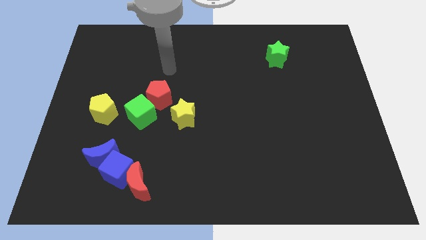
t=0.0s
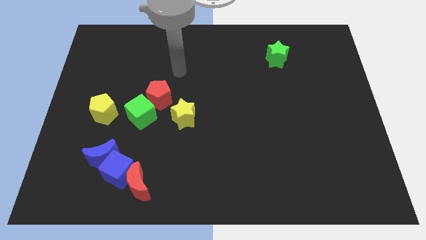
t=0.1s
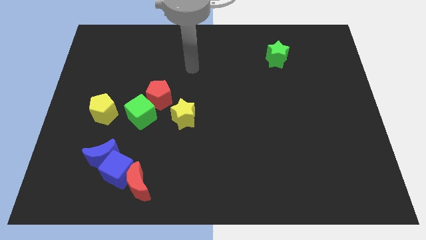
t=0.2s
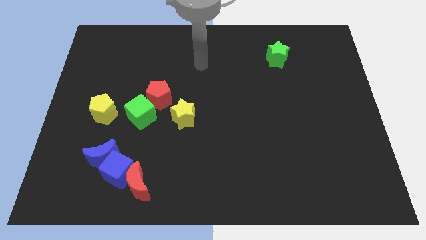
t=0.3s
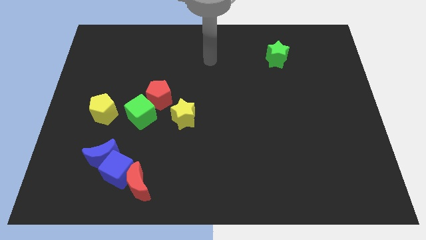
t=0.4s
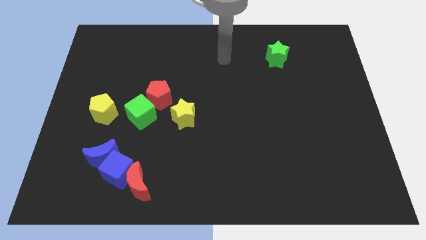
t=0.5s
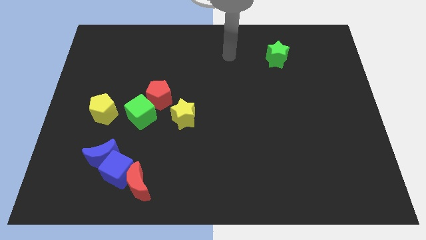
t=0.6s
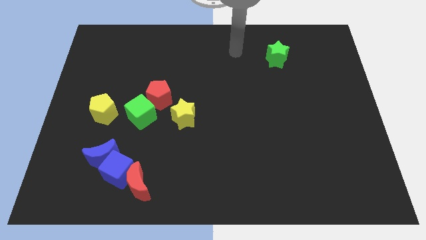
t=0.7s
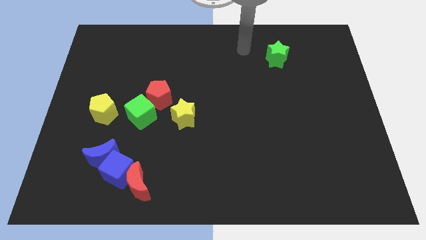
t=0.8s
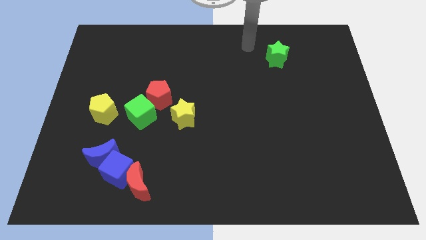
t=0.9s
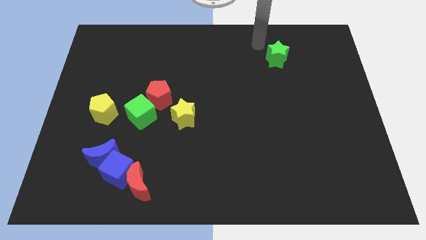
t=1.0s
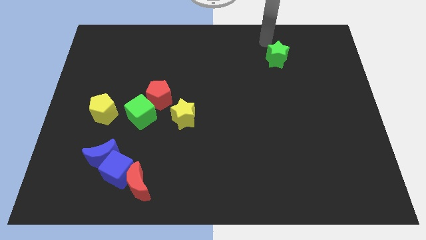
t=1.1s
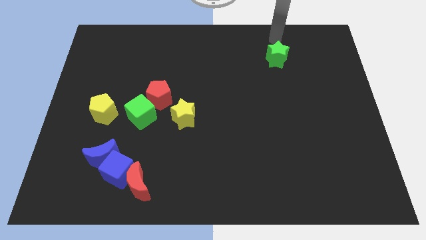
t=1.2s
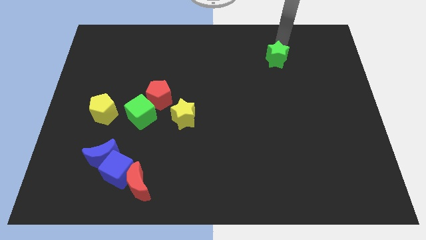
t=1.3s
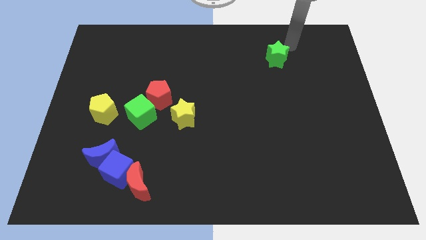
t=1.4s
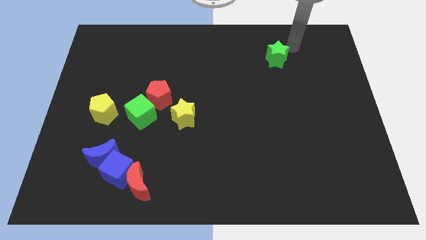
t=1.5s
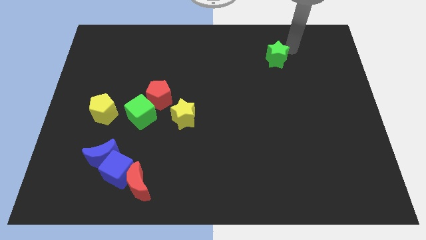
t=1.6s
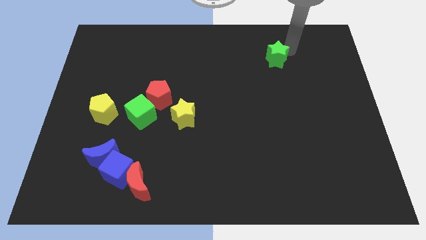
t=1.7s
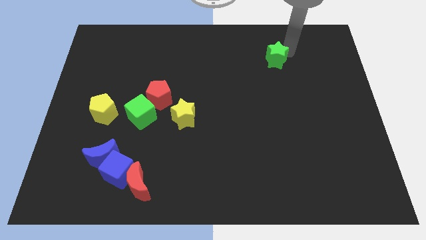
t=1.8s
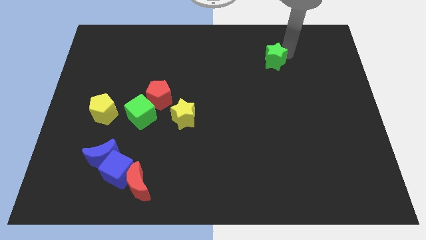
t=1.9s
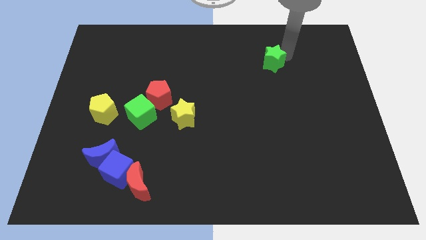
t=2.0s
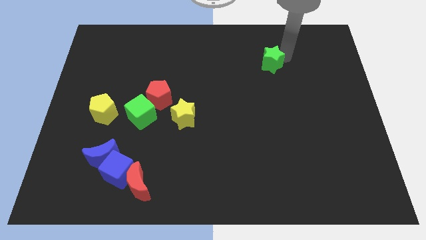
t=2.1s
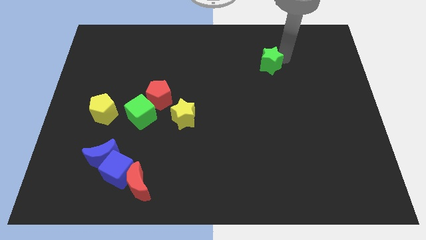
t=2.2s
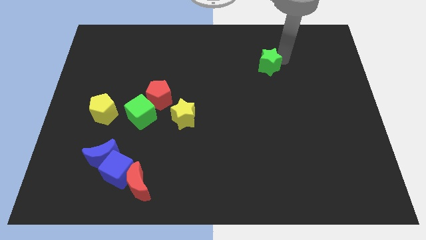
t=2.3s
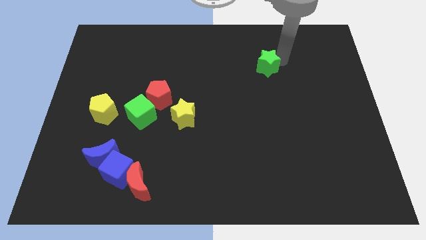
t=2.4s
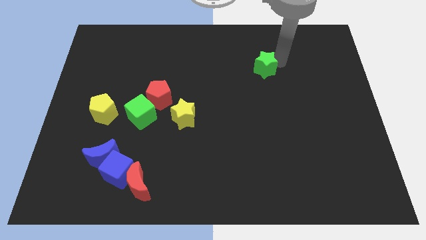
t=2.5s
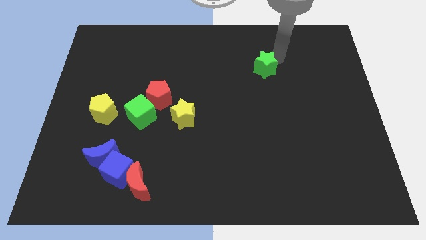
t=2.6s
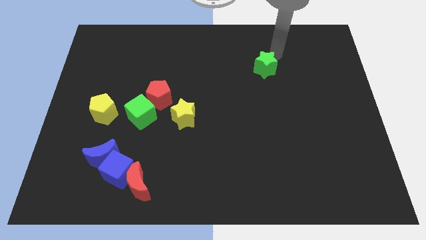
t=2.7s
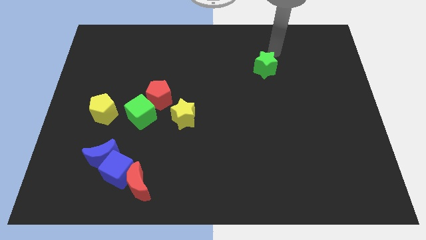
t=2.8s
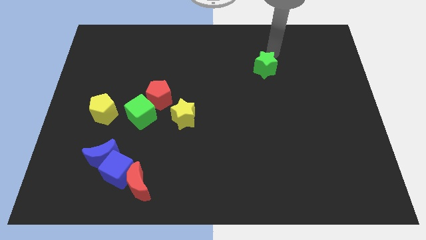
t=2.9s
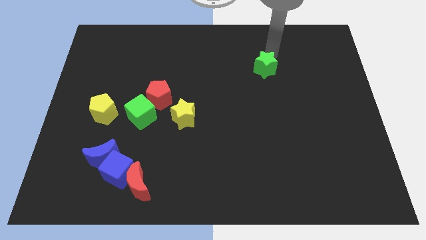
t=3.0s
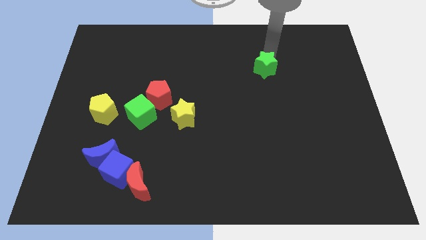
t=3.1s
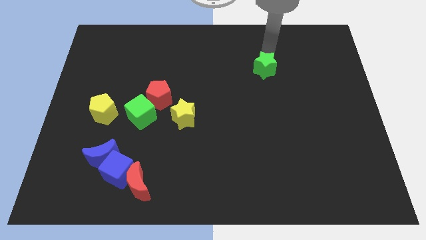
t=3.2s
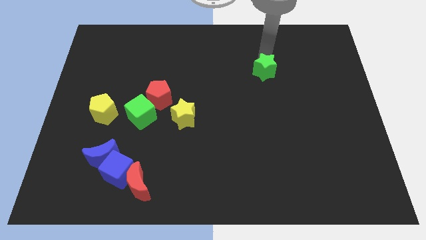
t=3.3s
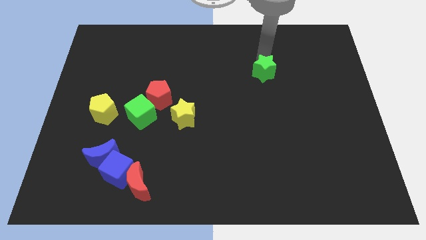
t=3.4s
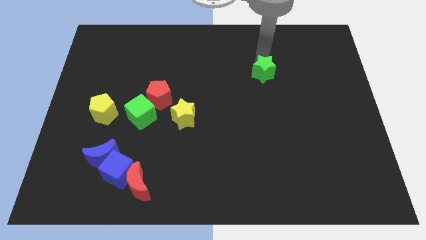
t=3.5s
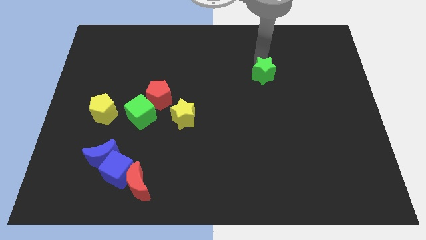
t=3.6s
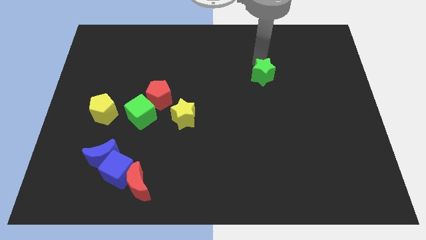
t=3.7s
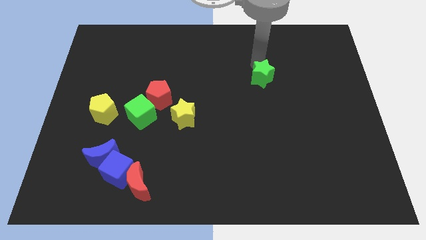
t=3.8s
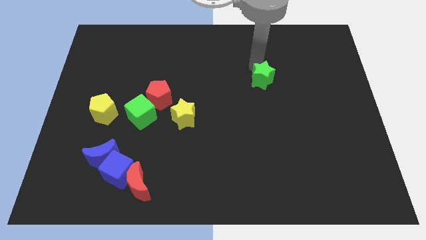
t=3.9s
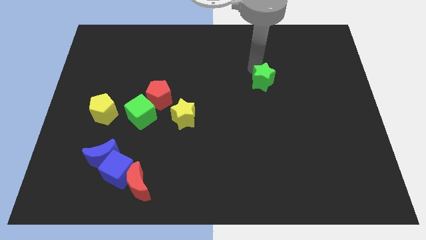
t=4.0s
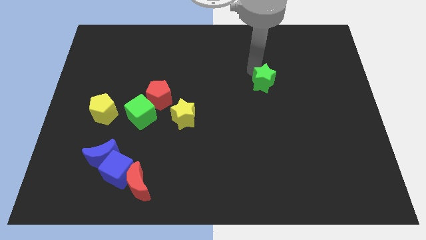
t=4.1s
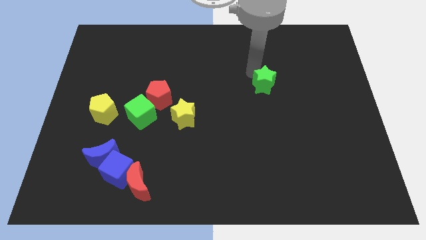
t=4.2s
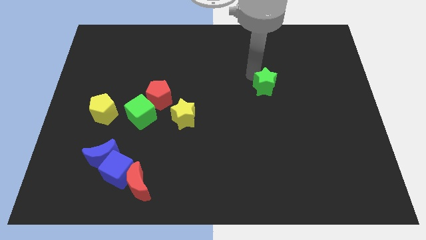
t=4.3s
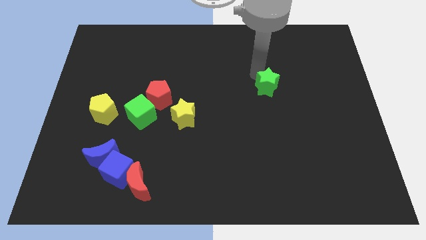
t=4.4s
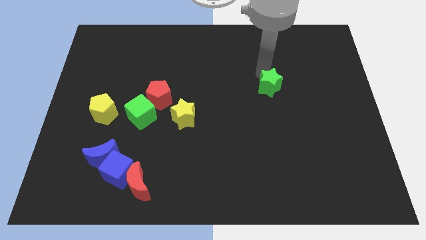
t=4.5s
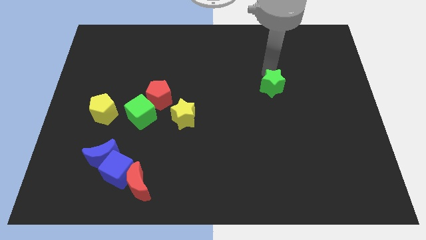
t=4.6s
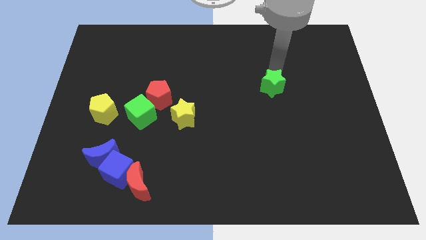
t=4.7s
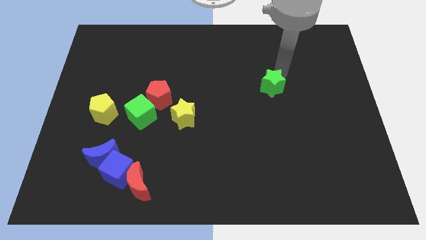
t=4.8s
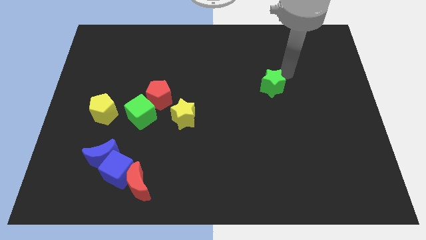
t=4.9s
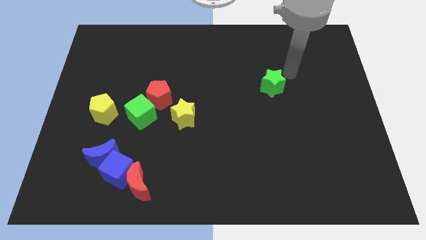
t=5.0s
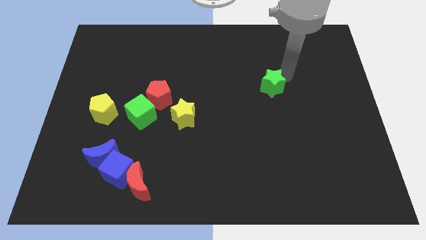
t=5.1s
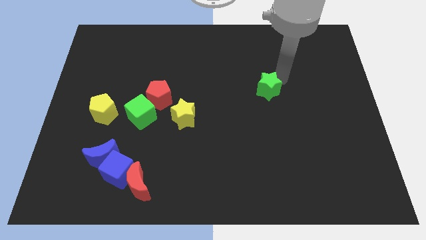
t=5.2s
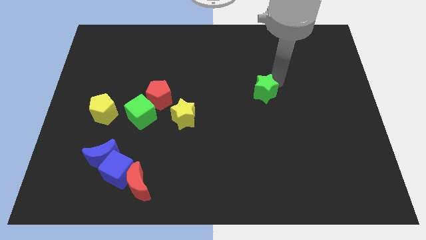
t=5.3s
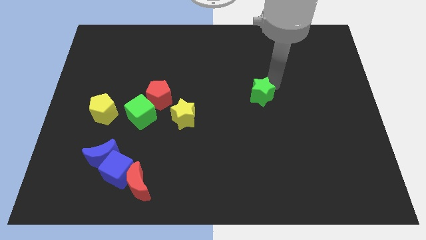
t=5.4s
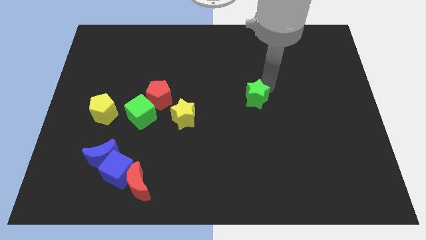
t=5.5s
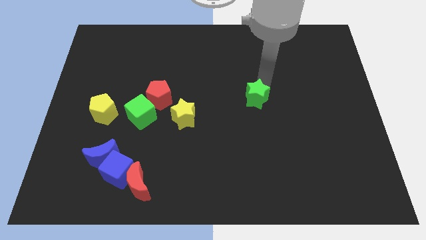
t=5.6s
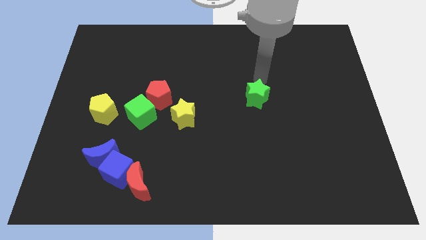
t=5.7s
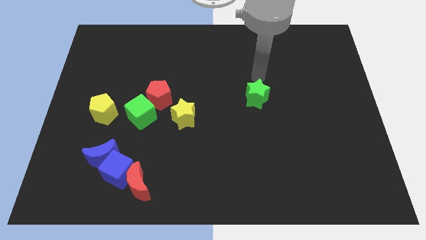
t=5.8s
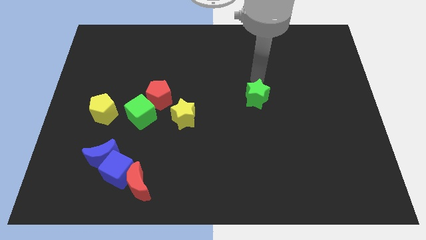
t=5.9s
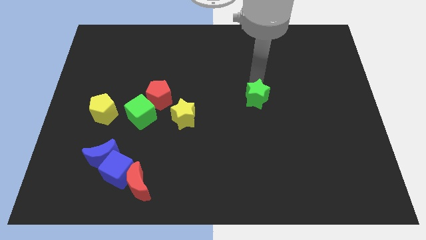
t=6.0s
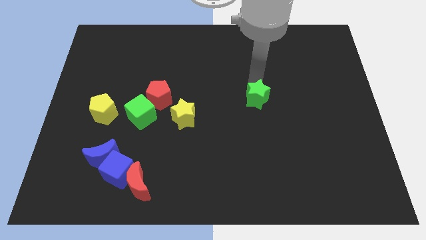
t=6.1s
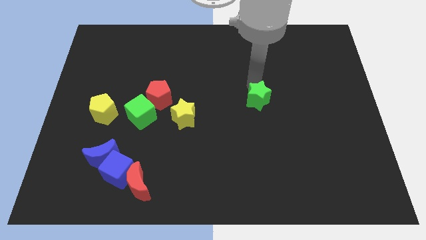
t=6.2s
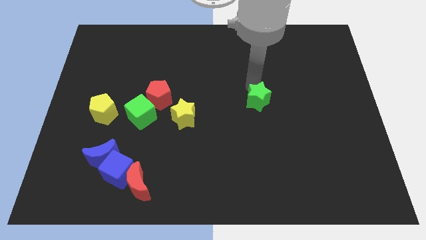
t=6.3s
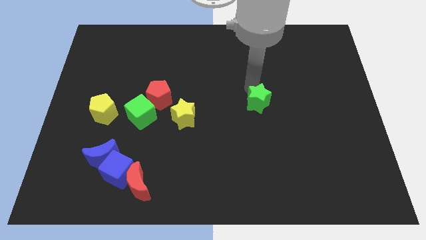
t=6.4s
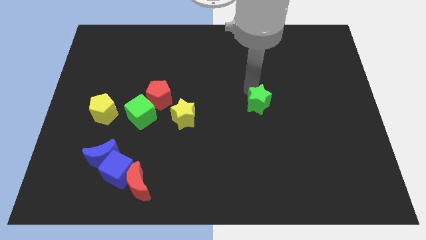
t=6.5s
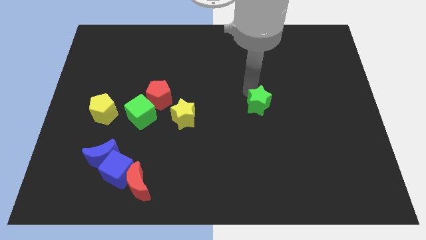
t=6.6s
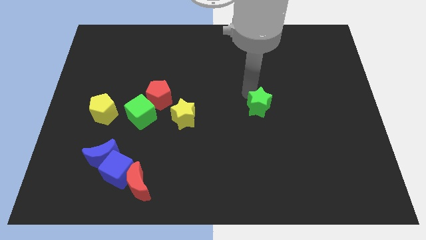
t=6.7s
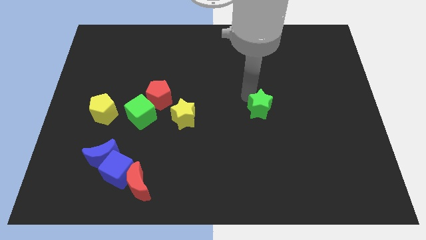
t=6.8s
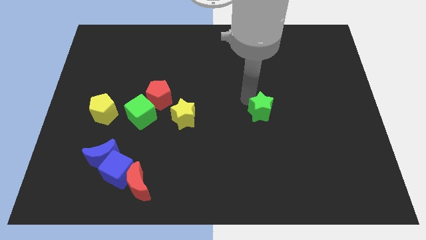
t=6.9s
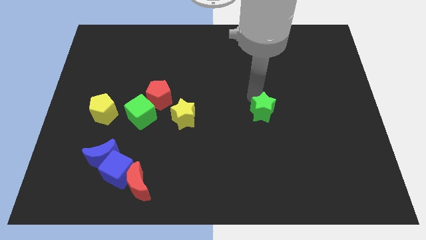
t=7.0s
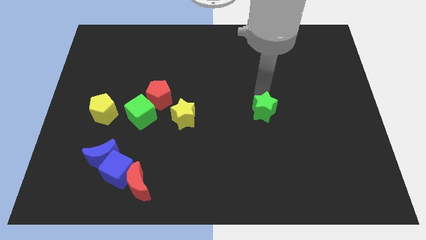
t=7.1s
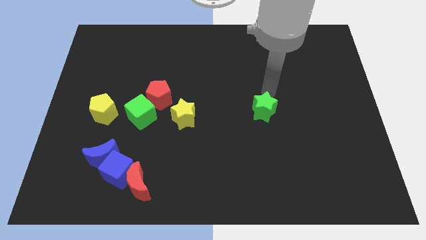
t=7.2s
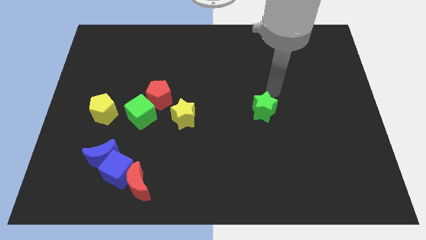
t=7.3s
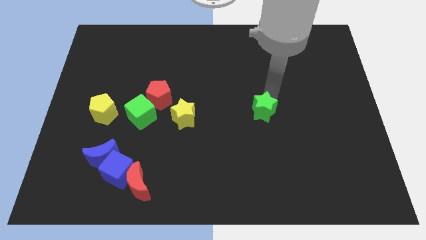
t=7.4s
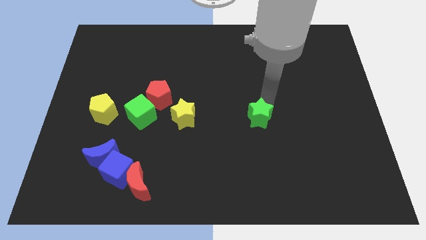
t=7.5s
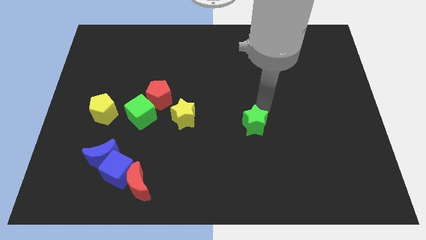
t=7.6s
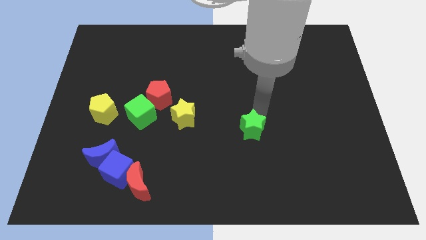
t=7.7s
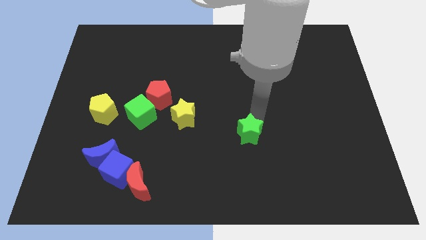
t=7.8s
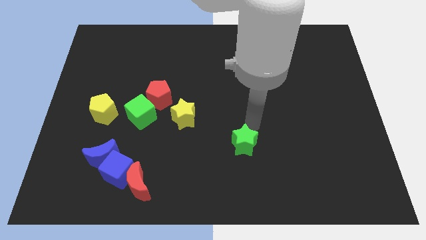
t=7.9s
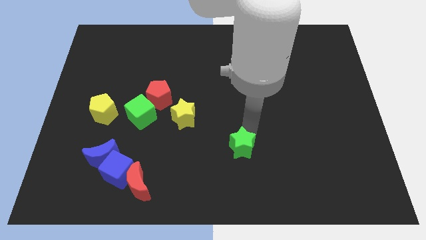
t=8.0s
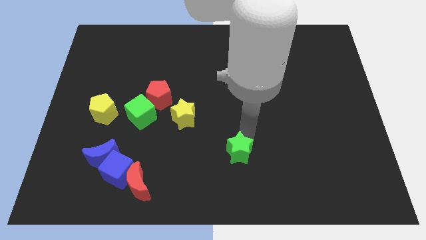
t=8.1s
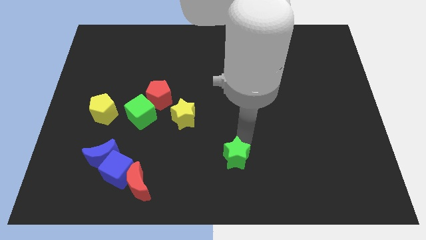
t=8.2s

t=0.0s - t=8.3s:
push the green star to the bottom side
